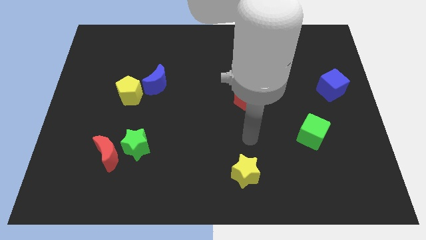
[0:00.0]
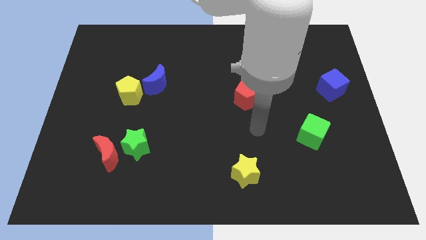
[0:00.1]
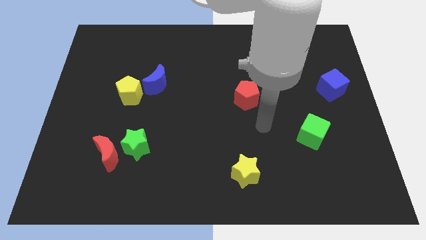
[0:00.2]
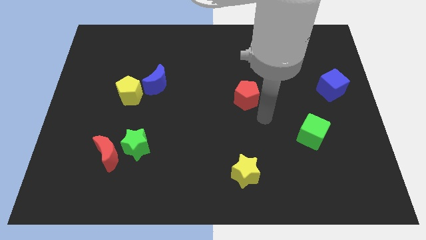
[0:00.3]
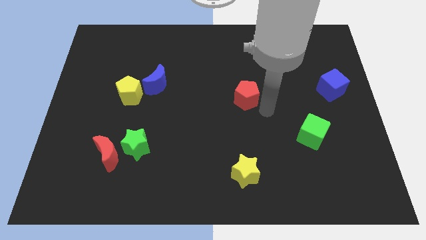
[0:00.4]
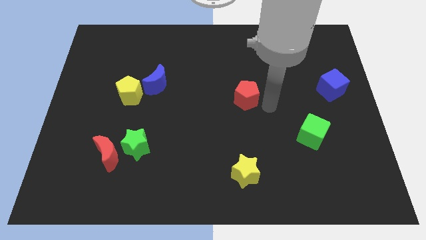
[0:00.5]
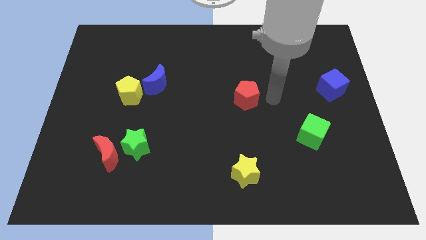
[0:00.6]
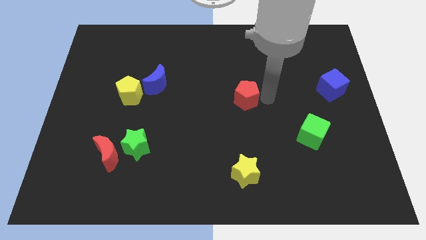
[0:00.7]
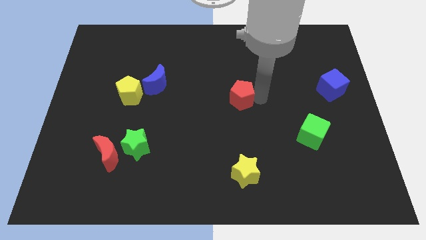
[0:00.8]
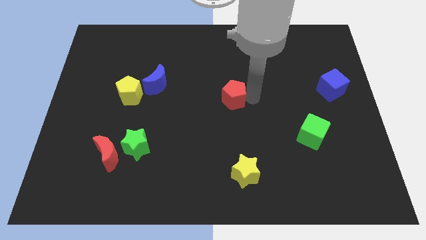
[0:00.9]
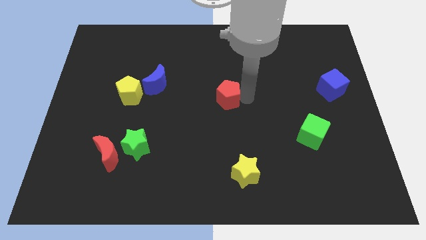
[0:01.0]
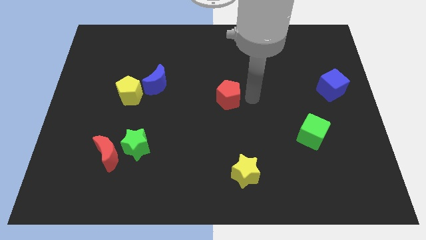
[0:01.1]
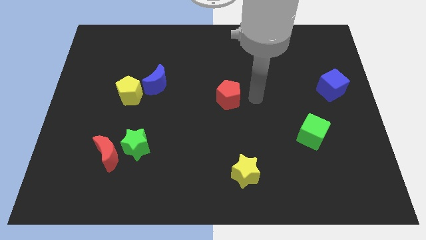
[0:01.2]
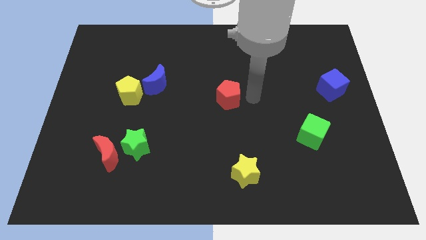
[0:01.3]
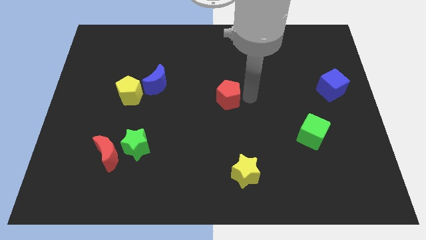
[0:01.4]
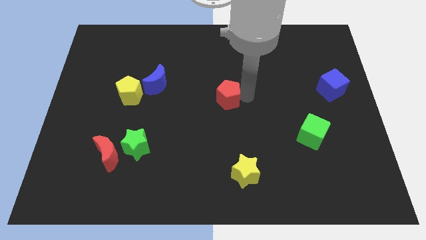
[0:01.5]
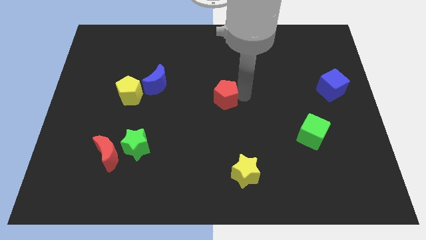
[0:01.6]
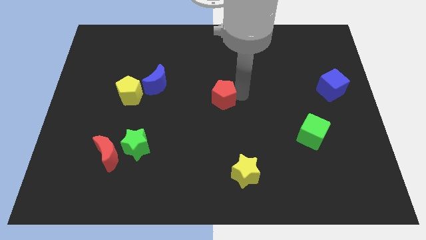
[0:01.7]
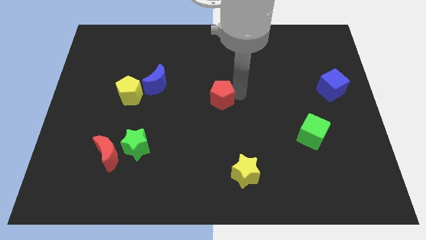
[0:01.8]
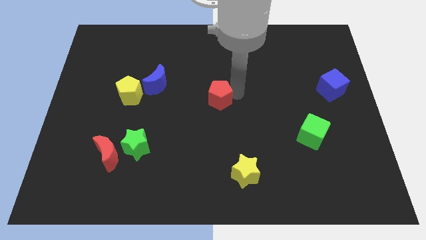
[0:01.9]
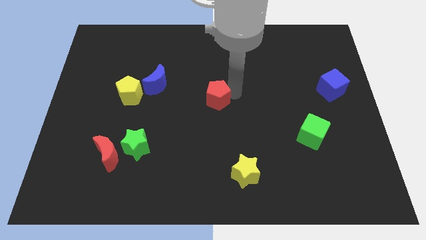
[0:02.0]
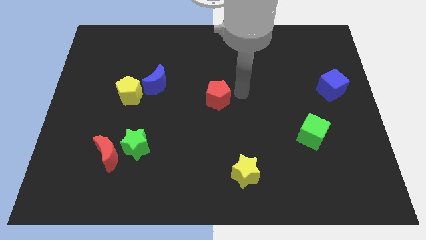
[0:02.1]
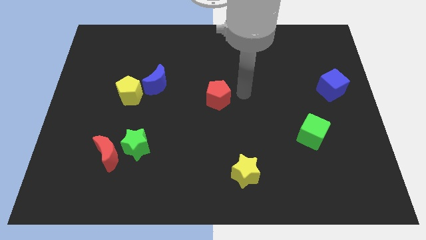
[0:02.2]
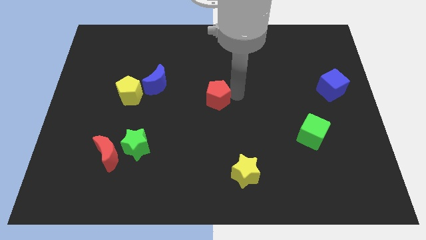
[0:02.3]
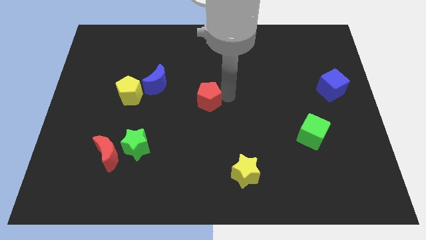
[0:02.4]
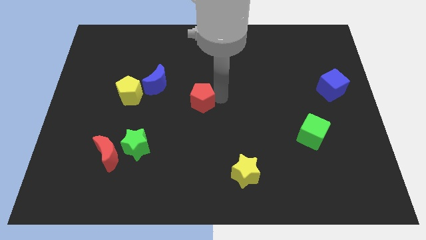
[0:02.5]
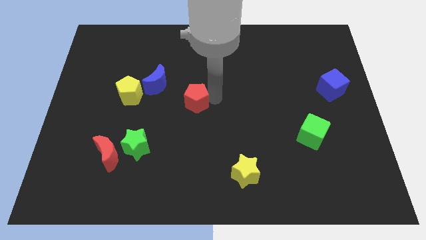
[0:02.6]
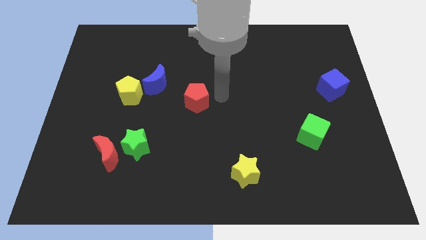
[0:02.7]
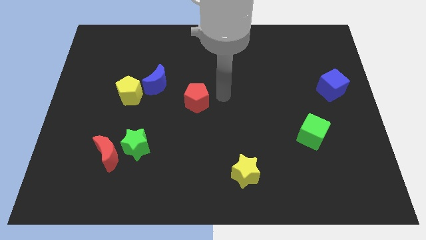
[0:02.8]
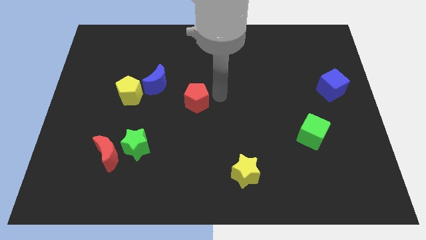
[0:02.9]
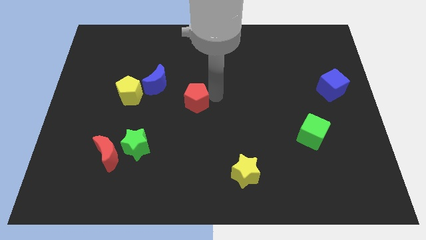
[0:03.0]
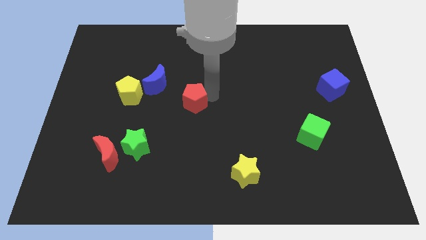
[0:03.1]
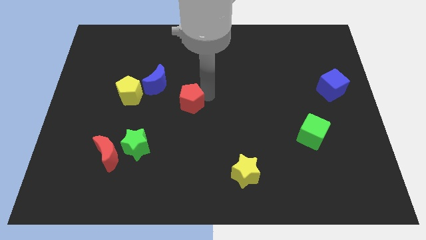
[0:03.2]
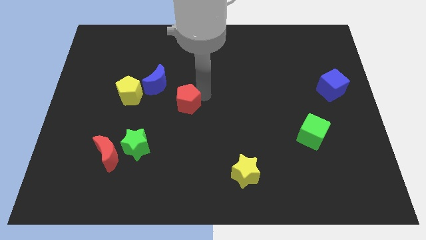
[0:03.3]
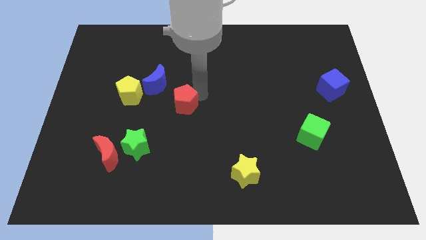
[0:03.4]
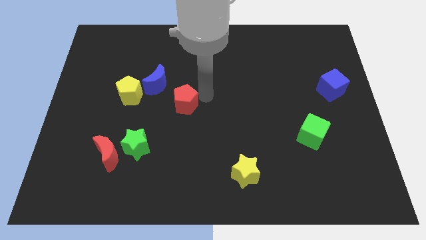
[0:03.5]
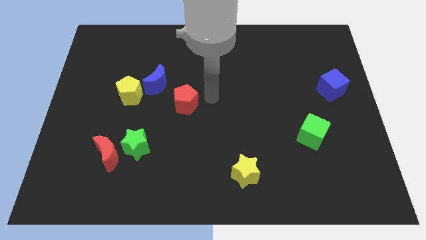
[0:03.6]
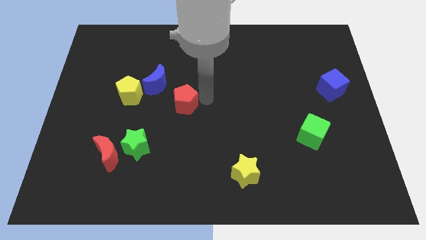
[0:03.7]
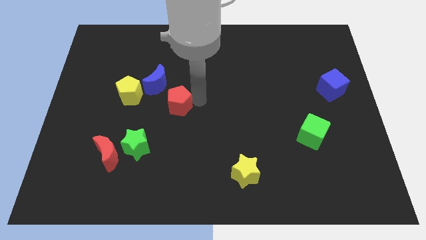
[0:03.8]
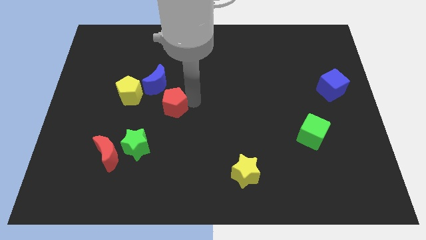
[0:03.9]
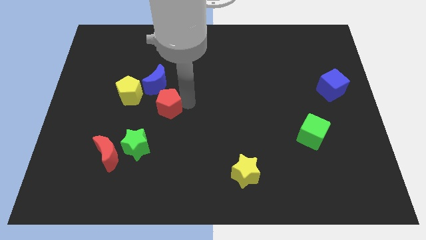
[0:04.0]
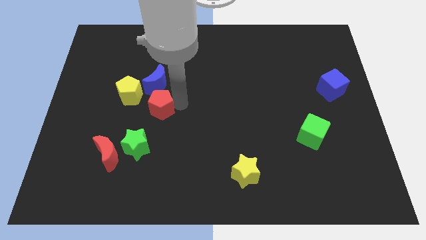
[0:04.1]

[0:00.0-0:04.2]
push the red pentagon left

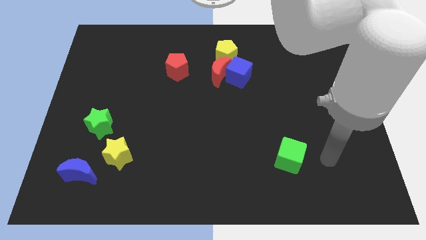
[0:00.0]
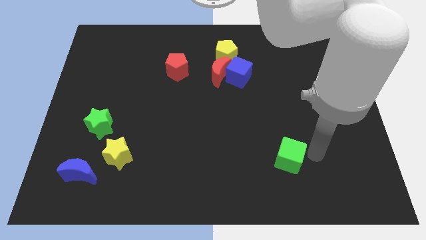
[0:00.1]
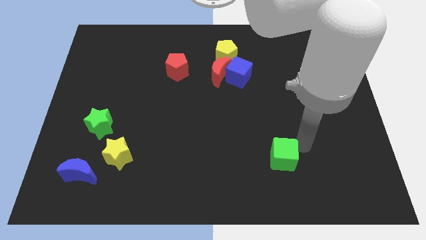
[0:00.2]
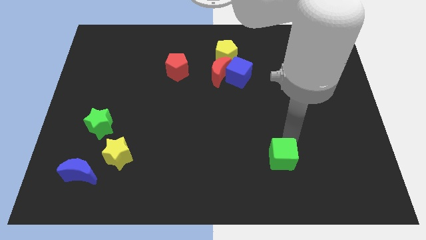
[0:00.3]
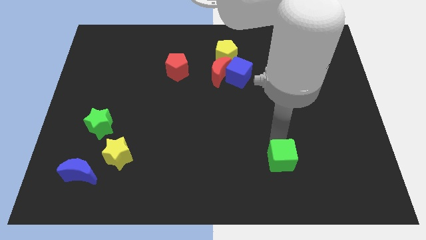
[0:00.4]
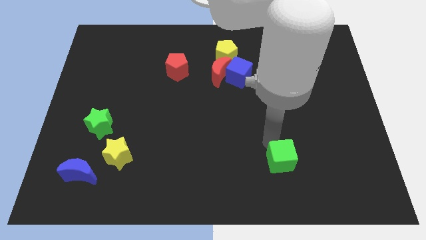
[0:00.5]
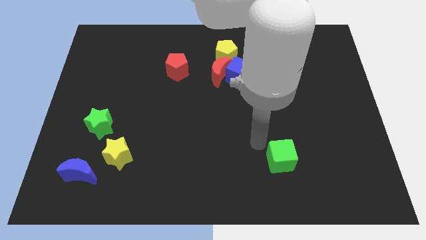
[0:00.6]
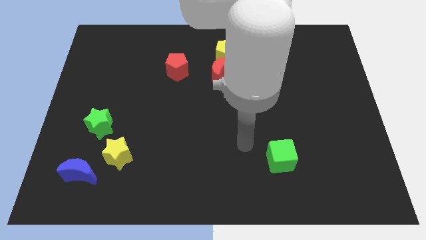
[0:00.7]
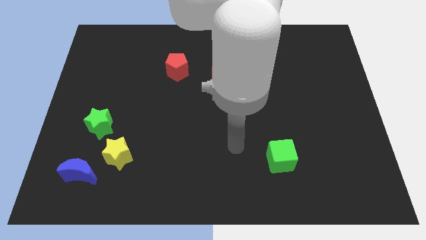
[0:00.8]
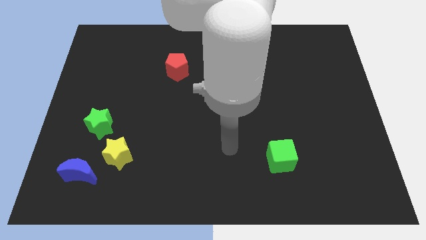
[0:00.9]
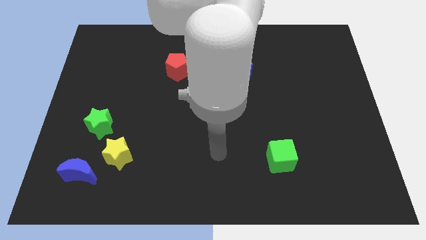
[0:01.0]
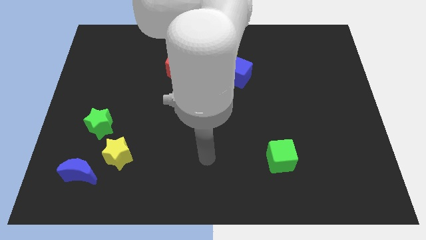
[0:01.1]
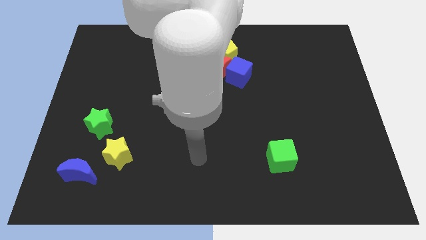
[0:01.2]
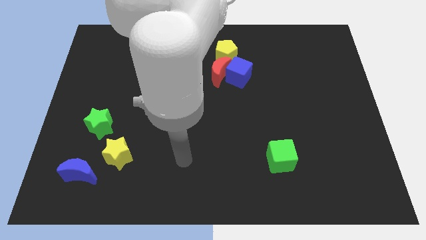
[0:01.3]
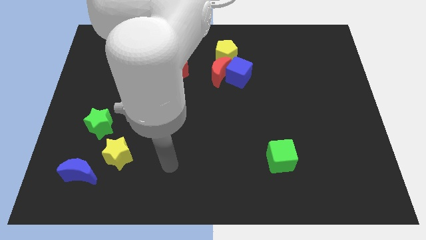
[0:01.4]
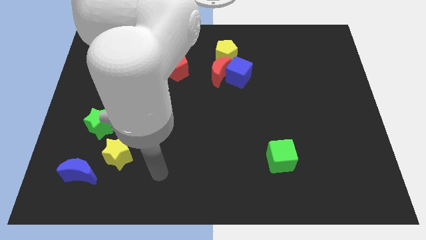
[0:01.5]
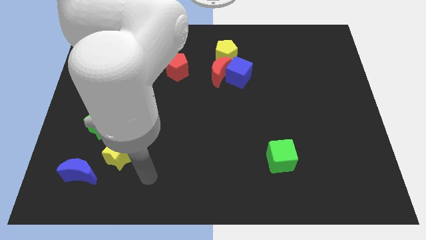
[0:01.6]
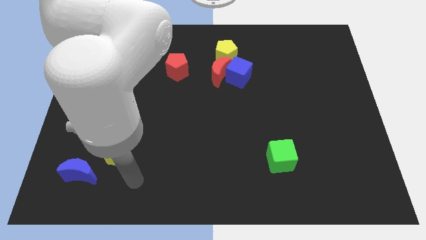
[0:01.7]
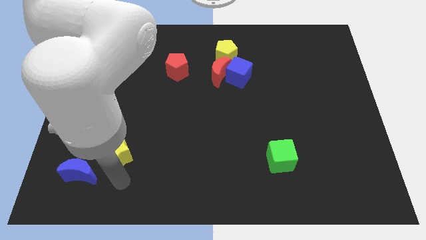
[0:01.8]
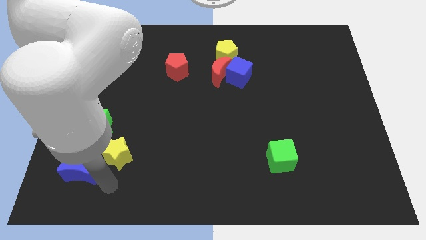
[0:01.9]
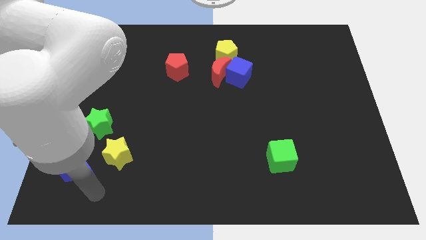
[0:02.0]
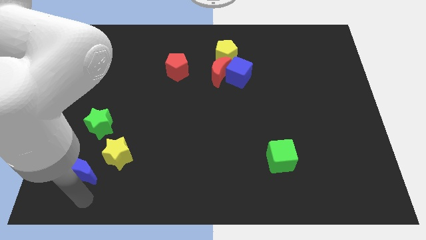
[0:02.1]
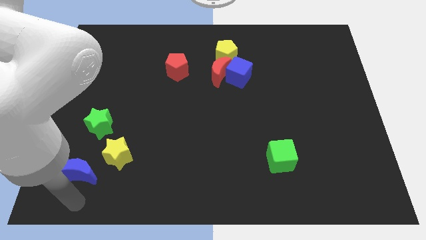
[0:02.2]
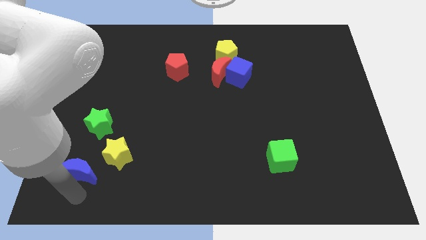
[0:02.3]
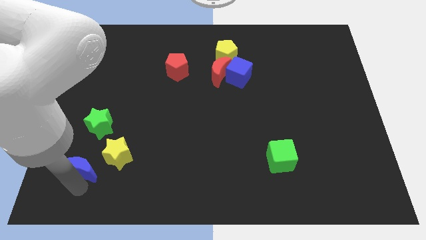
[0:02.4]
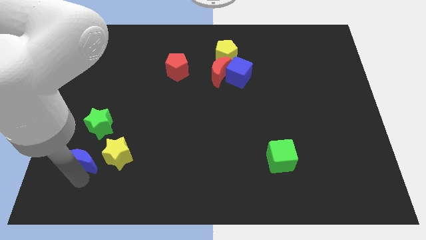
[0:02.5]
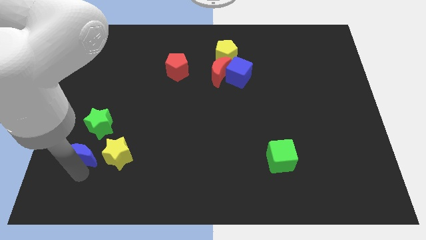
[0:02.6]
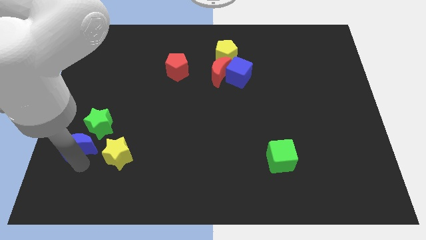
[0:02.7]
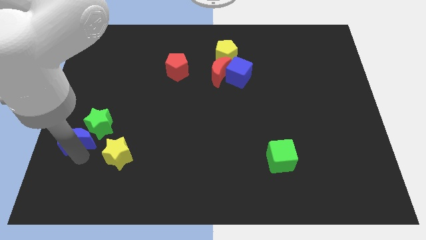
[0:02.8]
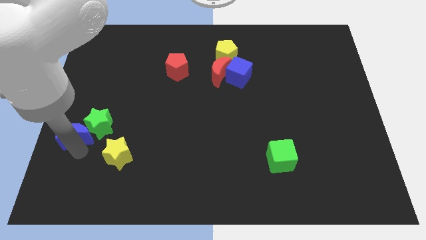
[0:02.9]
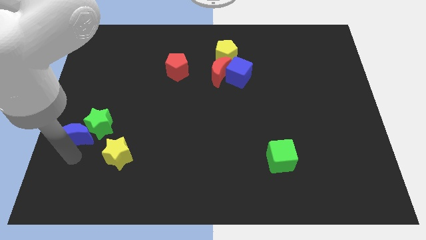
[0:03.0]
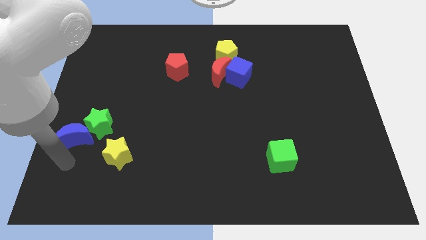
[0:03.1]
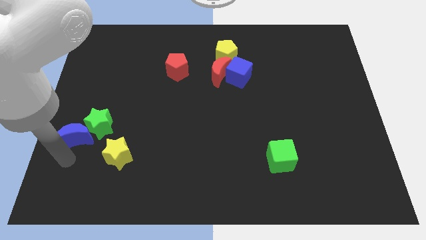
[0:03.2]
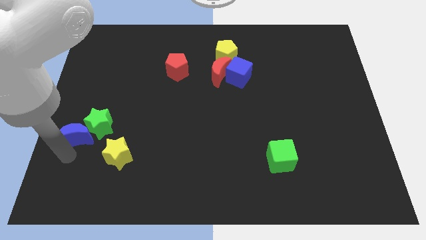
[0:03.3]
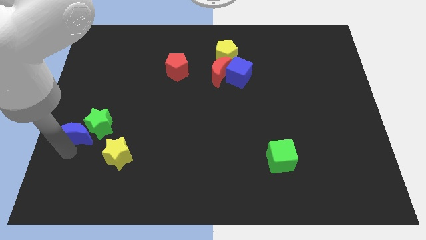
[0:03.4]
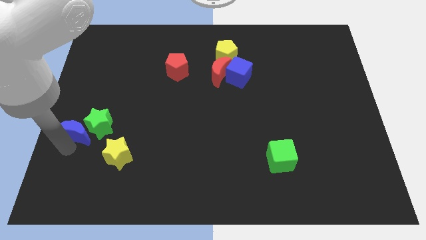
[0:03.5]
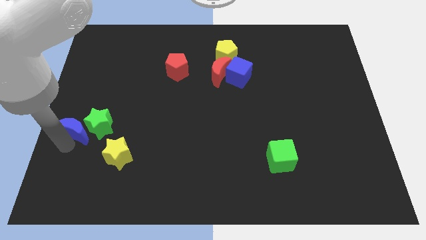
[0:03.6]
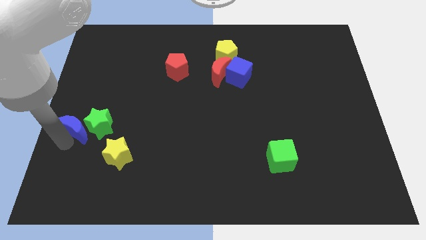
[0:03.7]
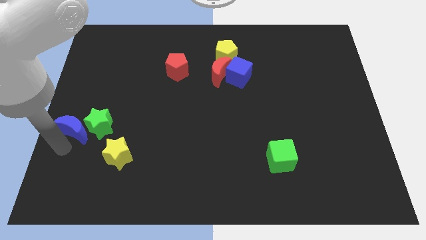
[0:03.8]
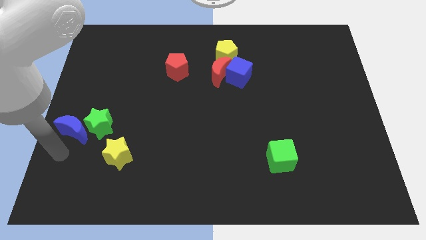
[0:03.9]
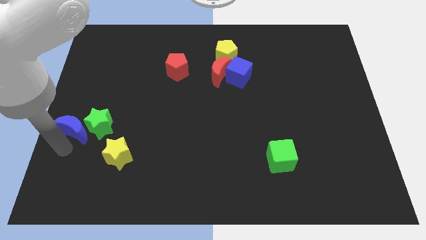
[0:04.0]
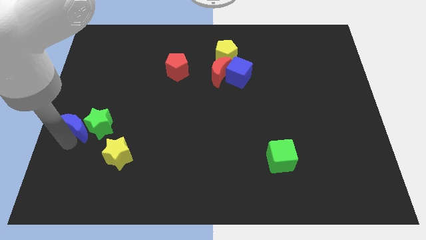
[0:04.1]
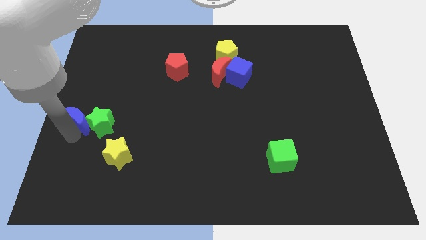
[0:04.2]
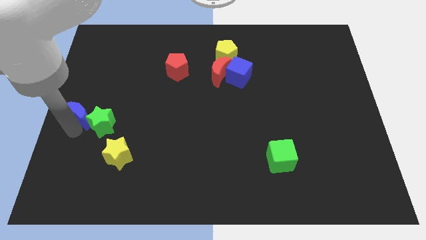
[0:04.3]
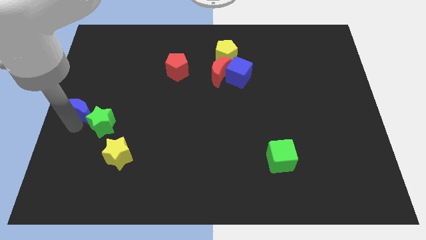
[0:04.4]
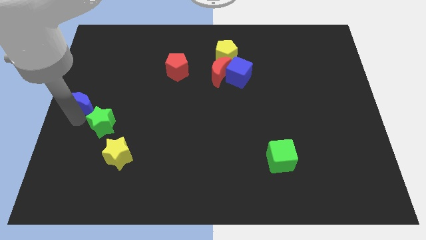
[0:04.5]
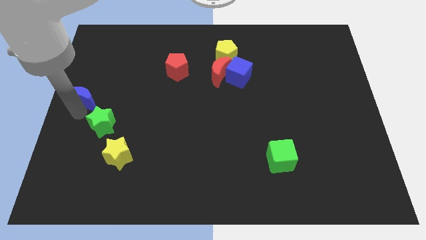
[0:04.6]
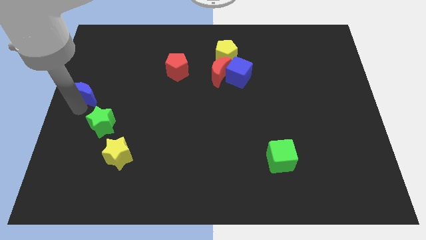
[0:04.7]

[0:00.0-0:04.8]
slide the blue moon up
